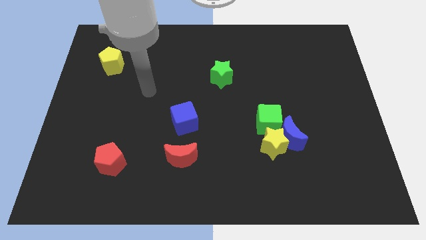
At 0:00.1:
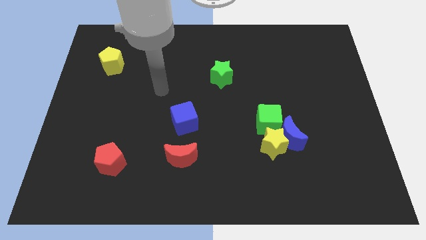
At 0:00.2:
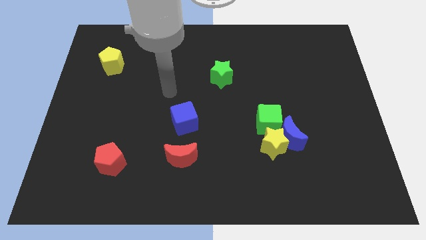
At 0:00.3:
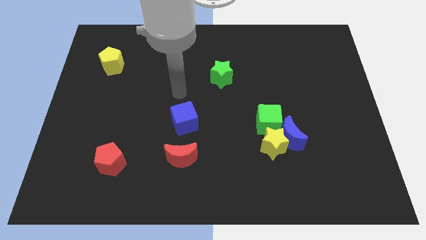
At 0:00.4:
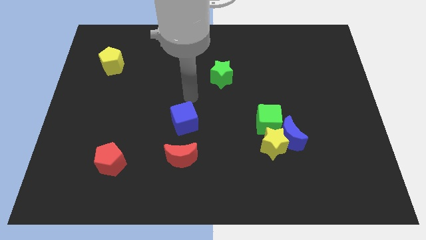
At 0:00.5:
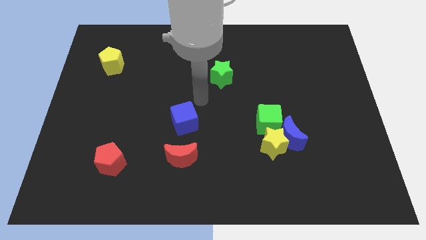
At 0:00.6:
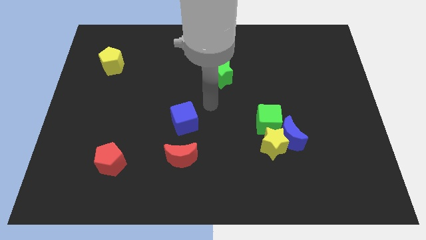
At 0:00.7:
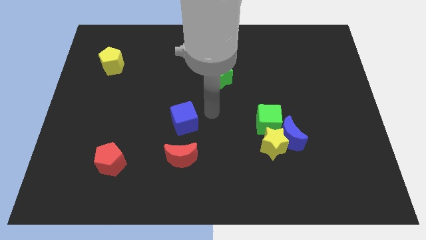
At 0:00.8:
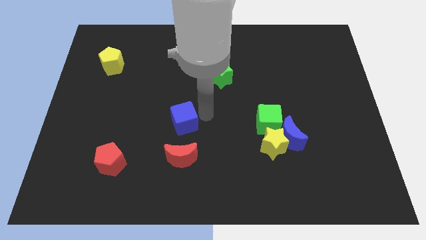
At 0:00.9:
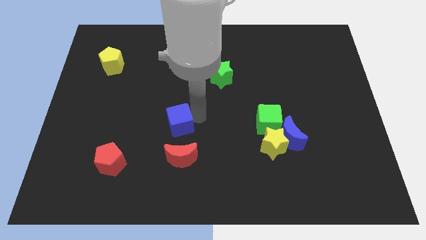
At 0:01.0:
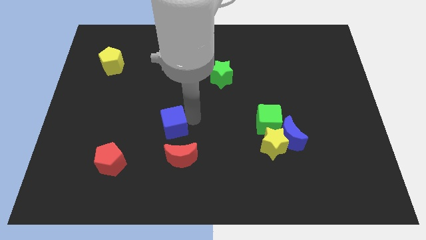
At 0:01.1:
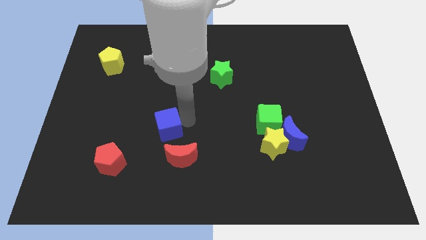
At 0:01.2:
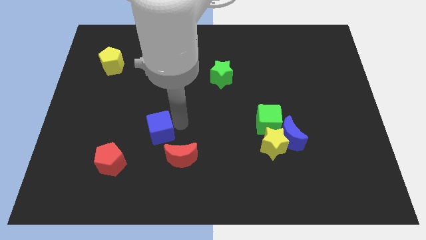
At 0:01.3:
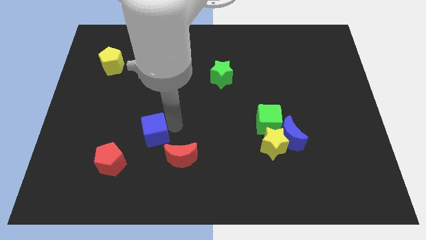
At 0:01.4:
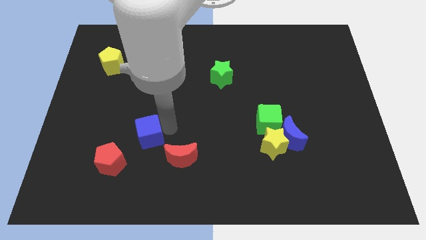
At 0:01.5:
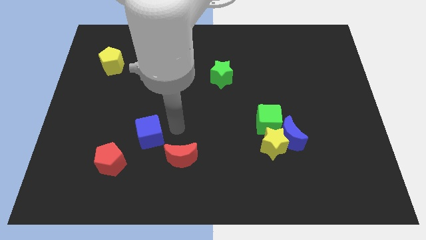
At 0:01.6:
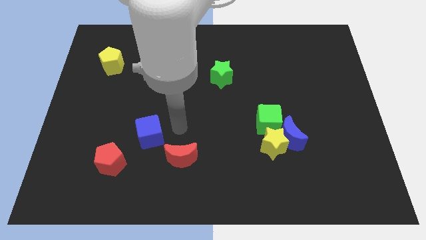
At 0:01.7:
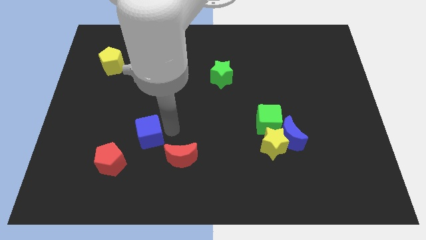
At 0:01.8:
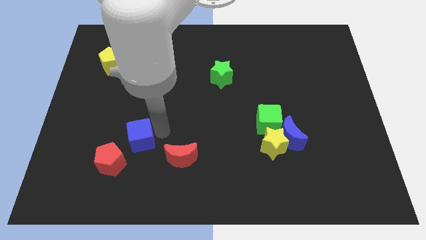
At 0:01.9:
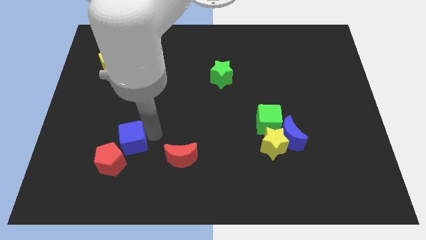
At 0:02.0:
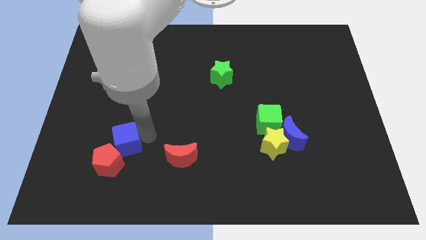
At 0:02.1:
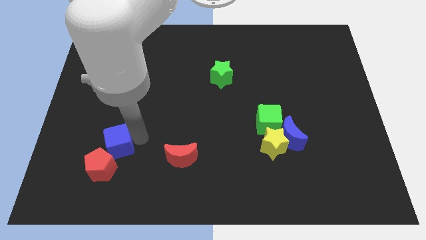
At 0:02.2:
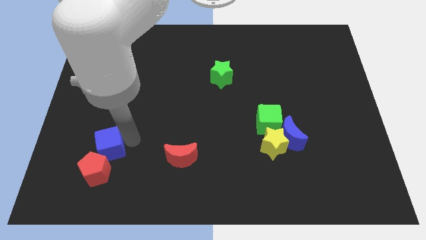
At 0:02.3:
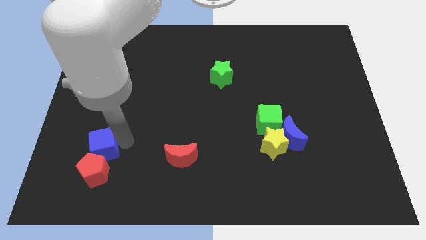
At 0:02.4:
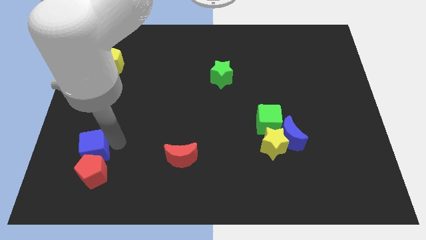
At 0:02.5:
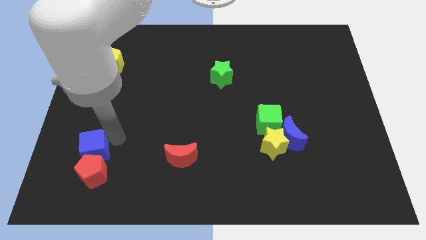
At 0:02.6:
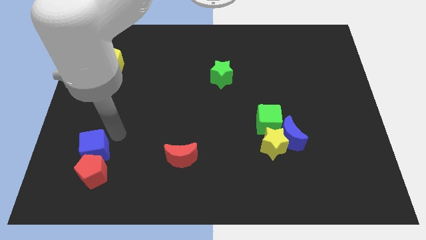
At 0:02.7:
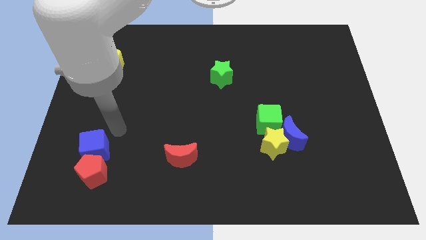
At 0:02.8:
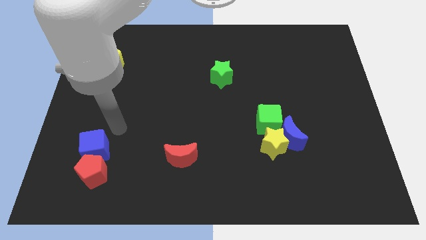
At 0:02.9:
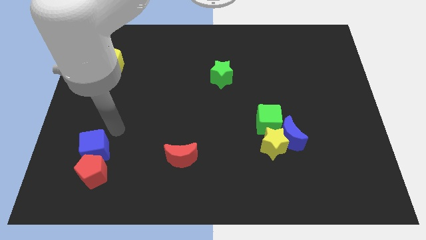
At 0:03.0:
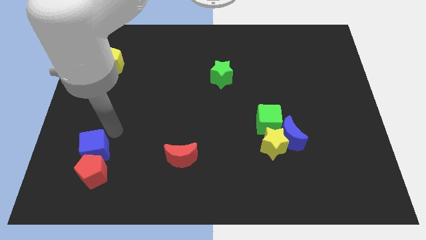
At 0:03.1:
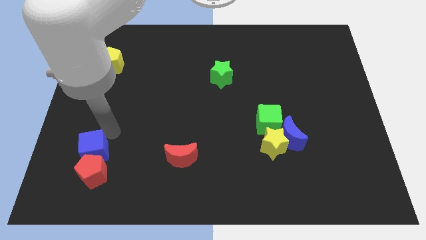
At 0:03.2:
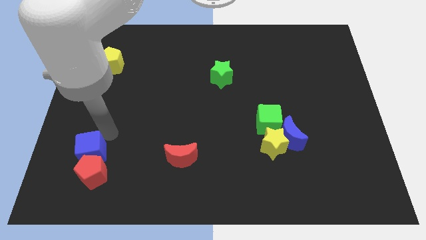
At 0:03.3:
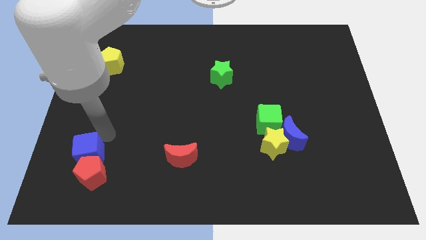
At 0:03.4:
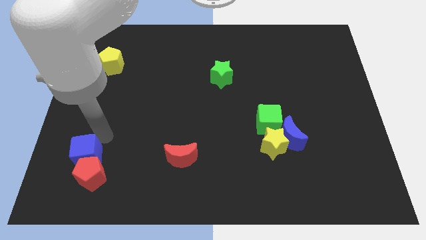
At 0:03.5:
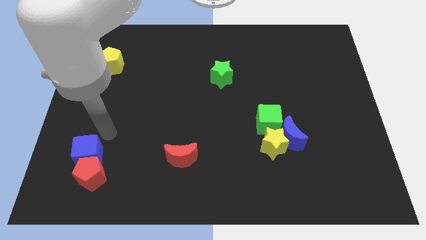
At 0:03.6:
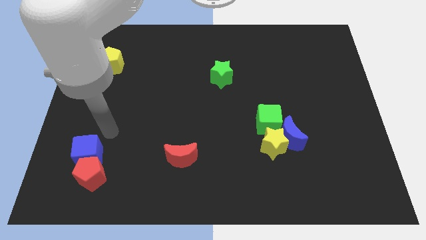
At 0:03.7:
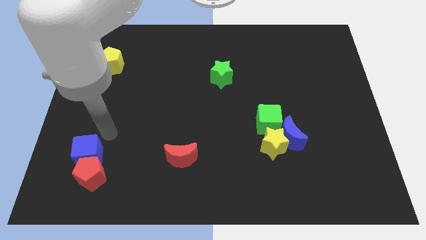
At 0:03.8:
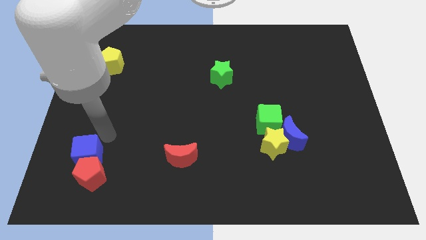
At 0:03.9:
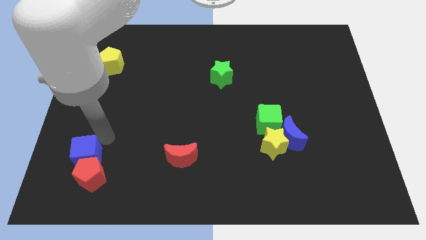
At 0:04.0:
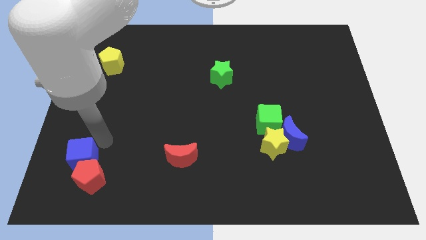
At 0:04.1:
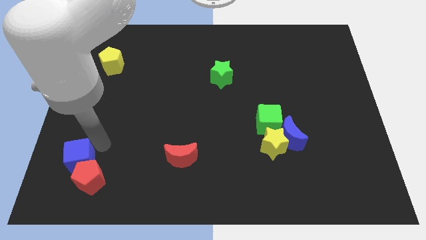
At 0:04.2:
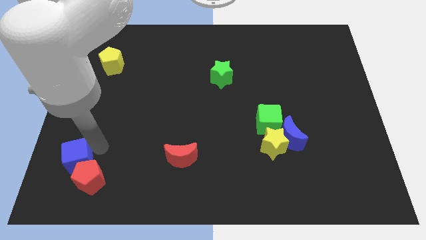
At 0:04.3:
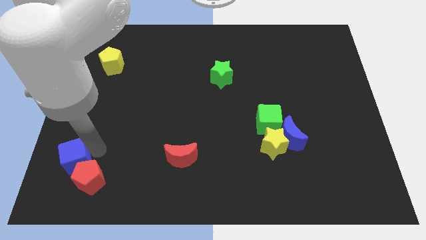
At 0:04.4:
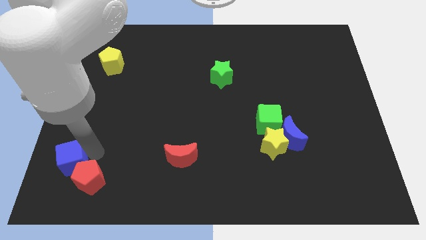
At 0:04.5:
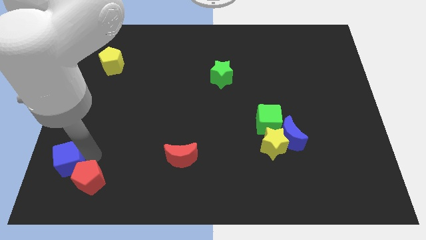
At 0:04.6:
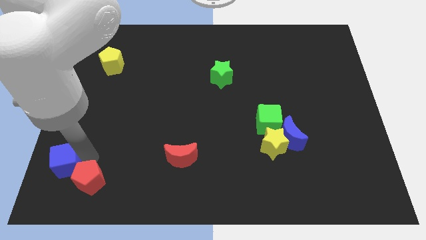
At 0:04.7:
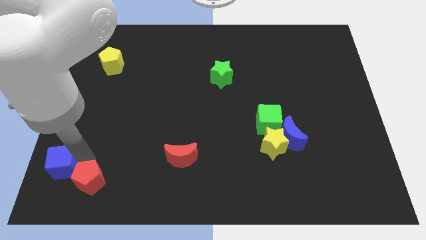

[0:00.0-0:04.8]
move the blue cube to the lower left corner

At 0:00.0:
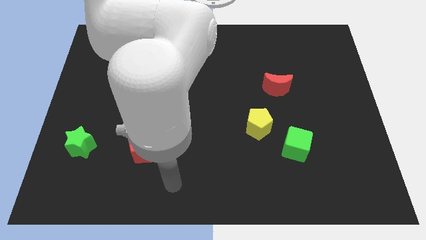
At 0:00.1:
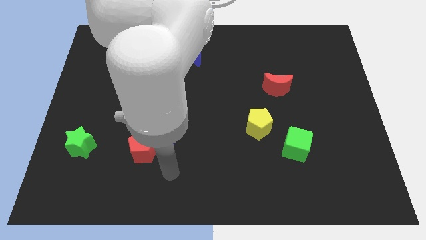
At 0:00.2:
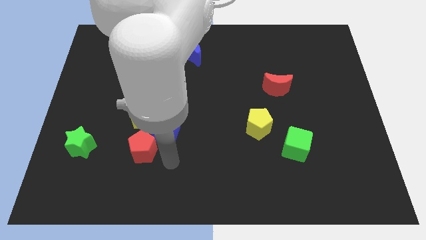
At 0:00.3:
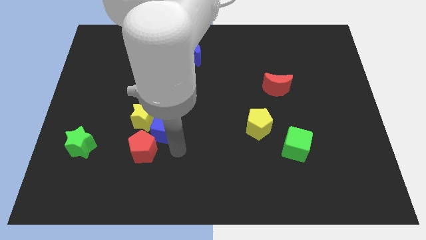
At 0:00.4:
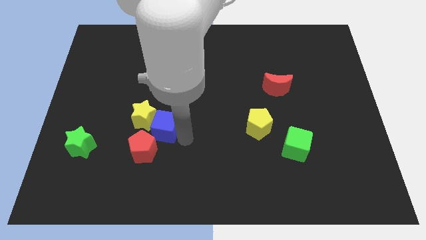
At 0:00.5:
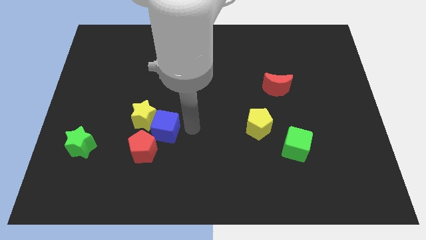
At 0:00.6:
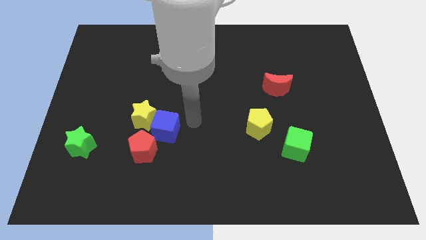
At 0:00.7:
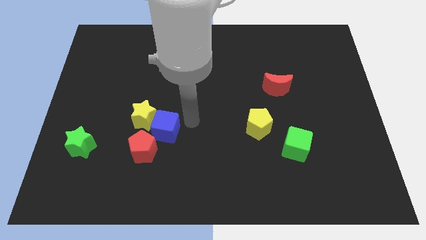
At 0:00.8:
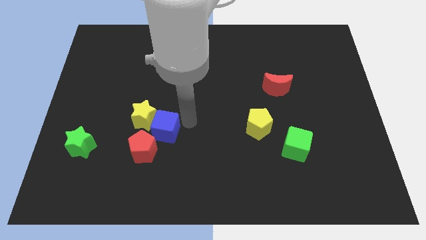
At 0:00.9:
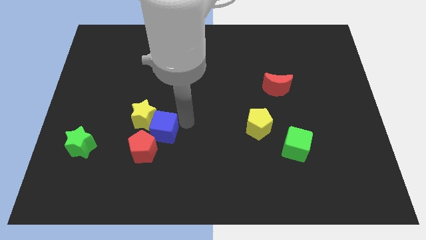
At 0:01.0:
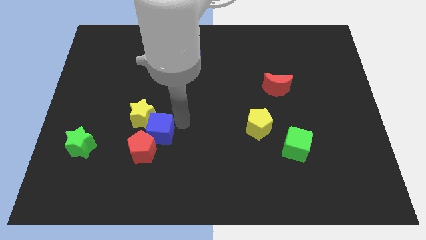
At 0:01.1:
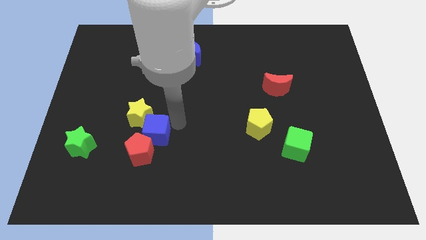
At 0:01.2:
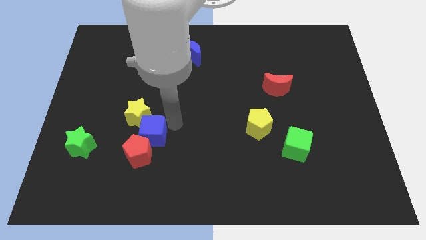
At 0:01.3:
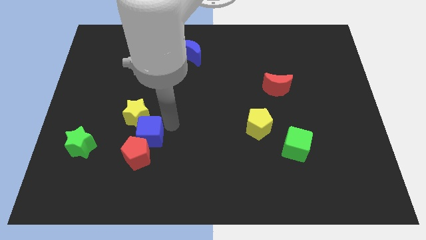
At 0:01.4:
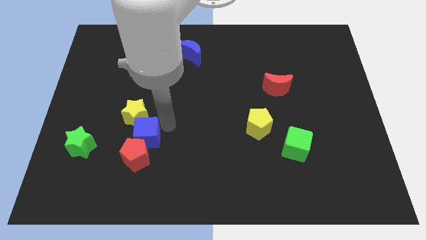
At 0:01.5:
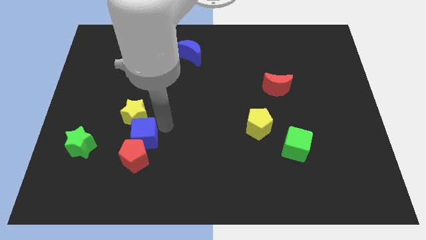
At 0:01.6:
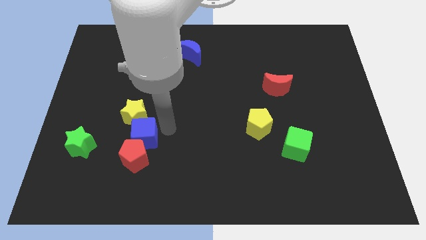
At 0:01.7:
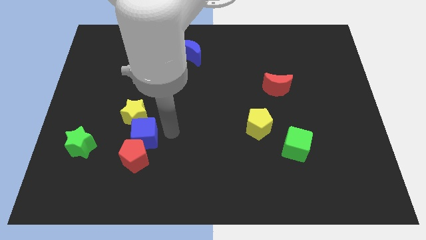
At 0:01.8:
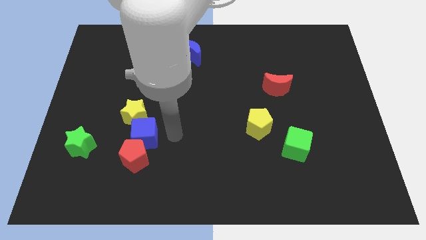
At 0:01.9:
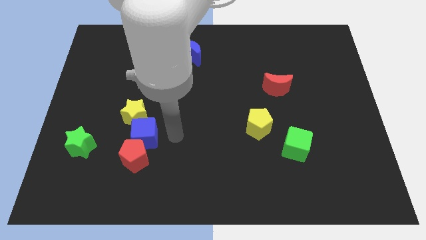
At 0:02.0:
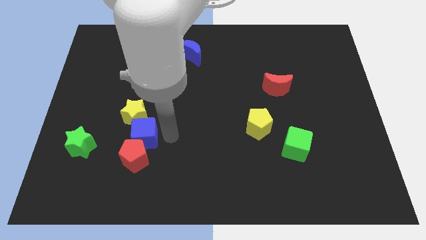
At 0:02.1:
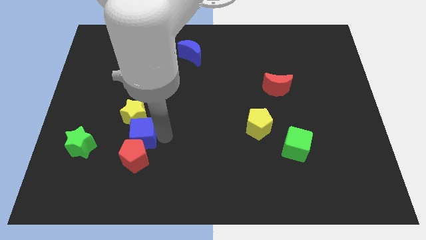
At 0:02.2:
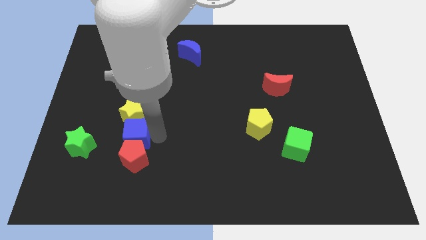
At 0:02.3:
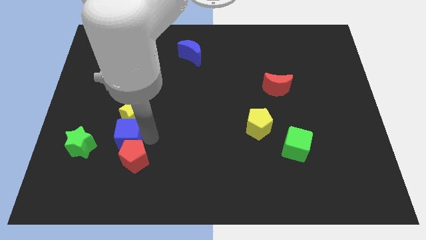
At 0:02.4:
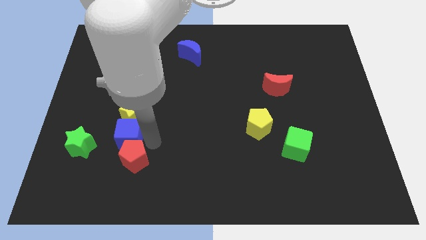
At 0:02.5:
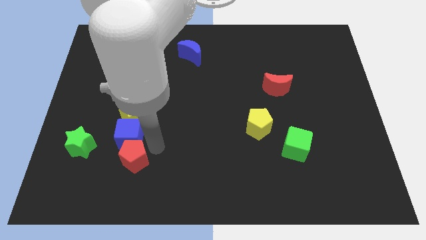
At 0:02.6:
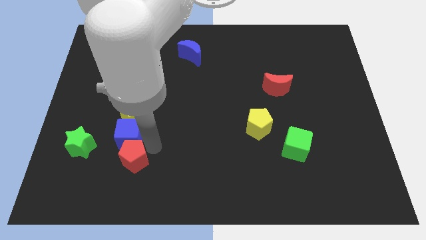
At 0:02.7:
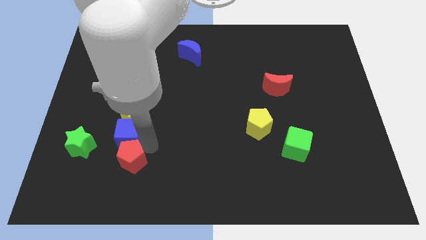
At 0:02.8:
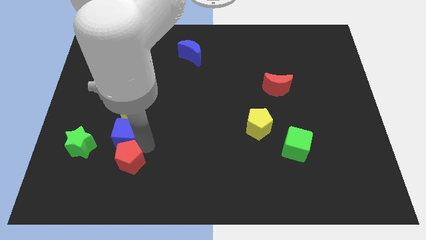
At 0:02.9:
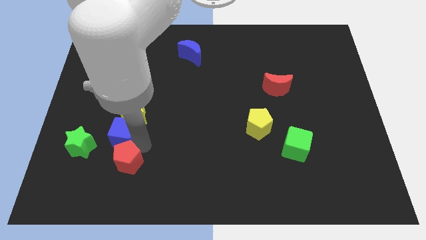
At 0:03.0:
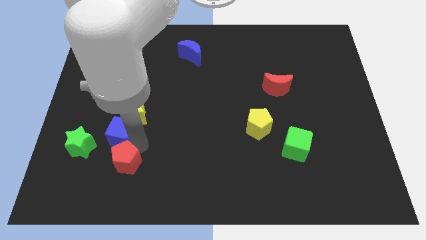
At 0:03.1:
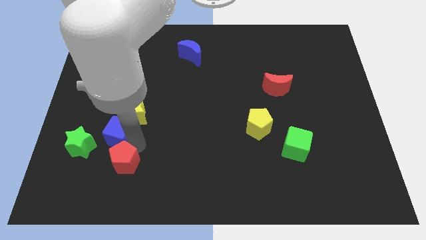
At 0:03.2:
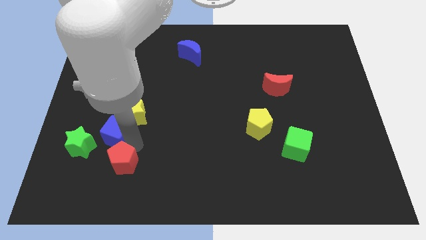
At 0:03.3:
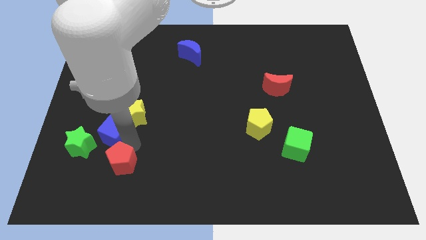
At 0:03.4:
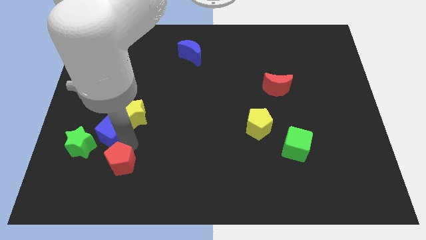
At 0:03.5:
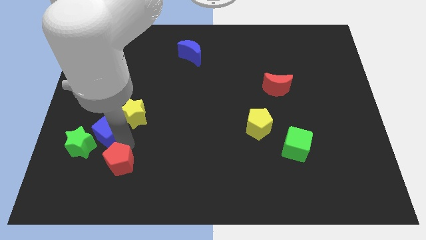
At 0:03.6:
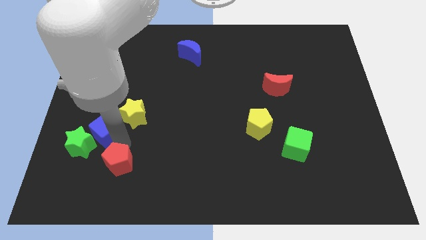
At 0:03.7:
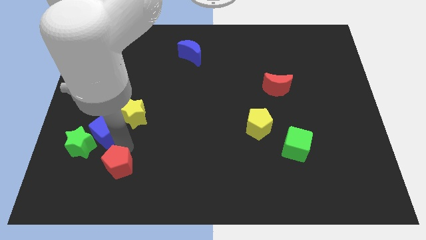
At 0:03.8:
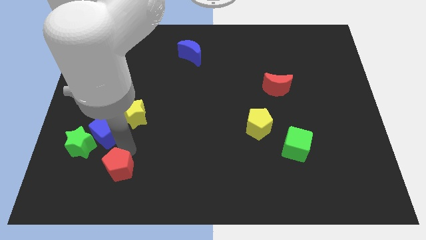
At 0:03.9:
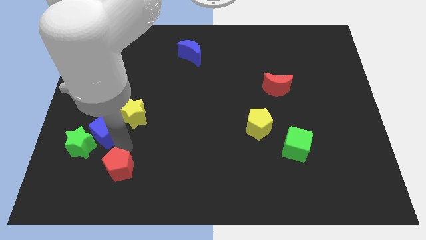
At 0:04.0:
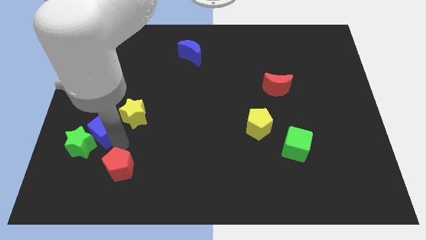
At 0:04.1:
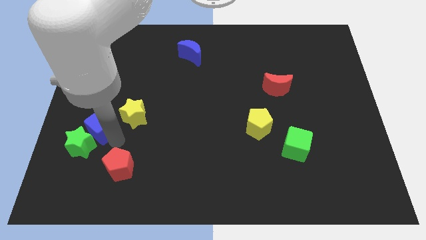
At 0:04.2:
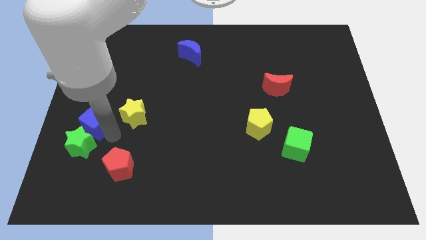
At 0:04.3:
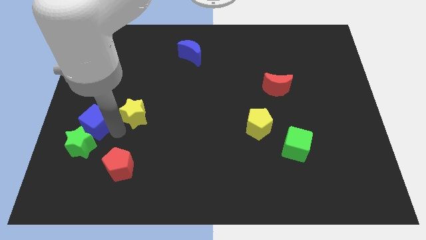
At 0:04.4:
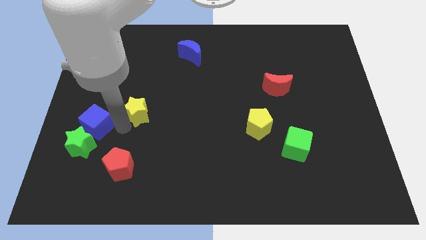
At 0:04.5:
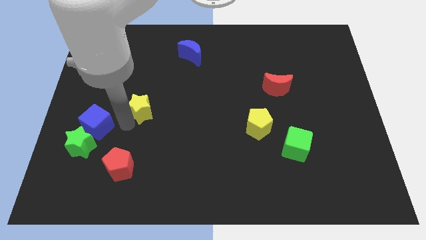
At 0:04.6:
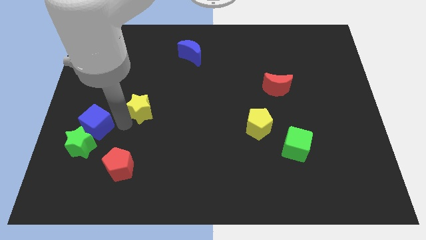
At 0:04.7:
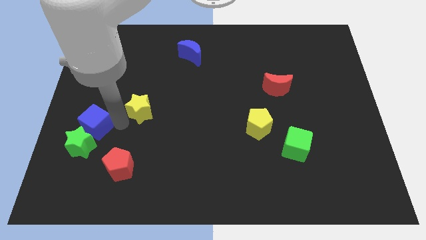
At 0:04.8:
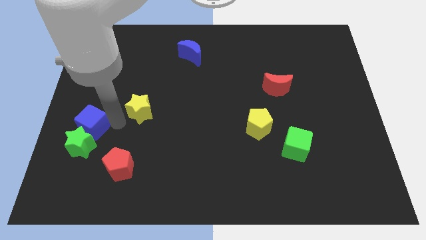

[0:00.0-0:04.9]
put the blue cube to the left side
